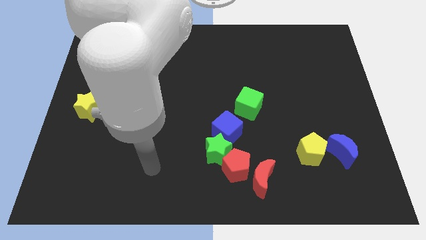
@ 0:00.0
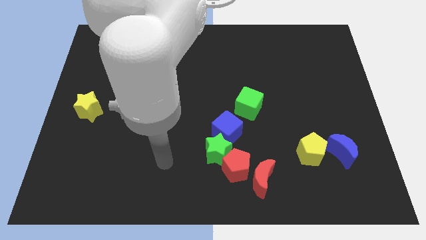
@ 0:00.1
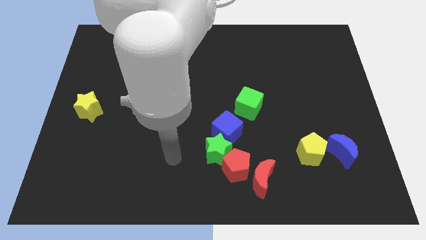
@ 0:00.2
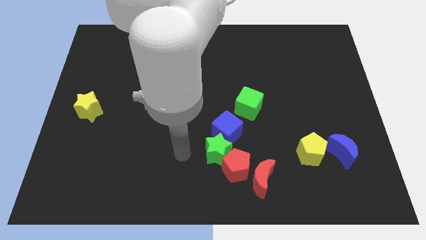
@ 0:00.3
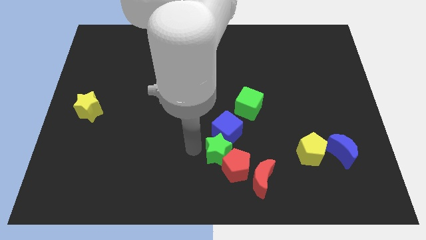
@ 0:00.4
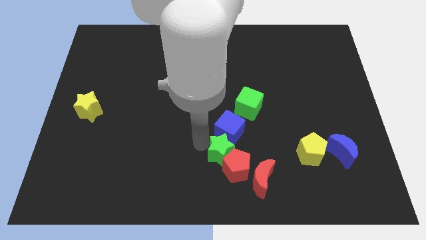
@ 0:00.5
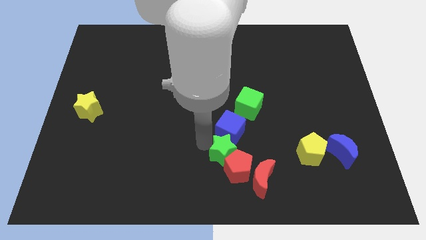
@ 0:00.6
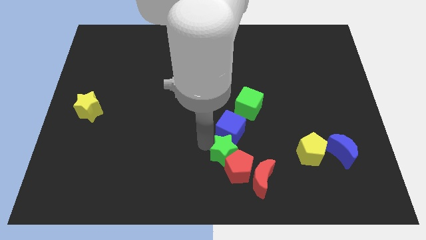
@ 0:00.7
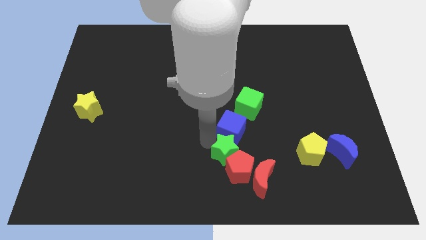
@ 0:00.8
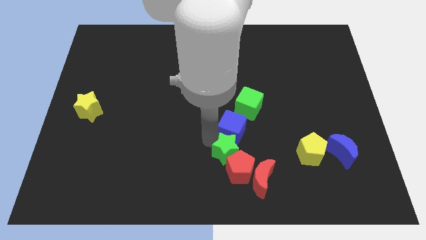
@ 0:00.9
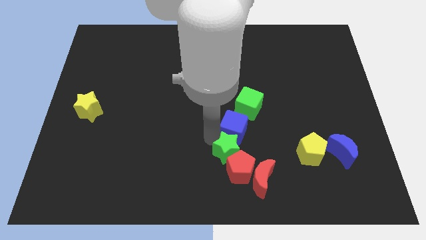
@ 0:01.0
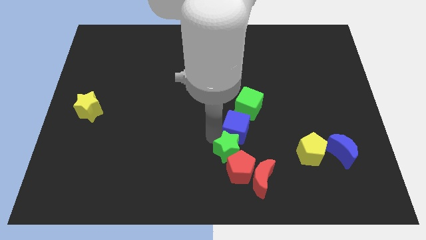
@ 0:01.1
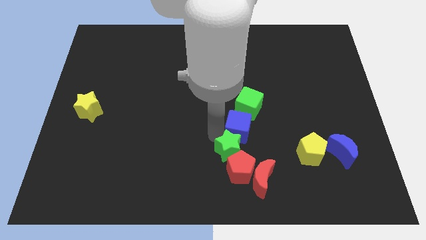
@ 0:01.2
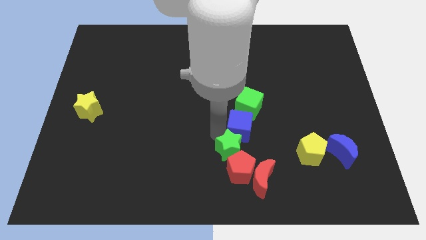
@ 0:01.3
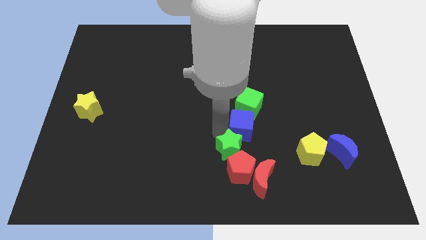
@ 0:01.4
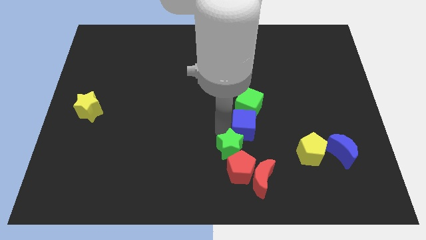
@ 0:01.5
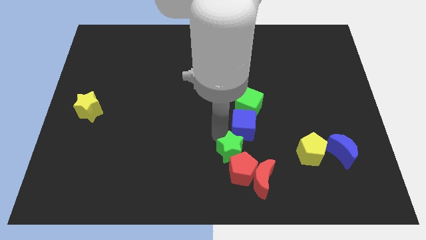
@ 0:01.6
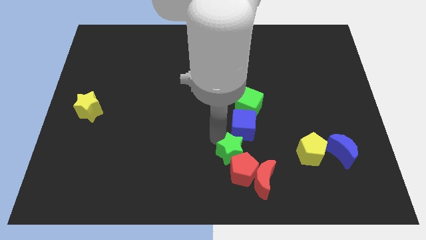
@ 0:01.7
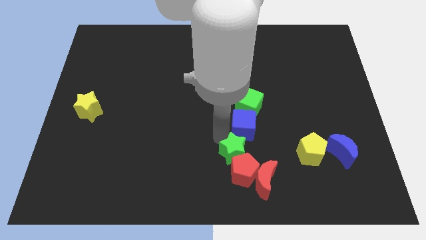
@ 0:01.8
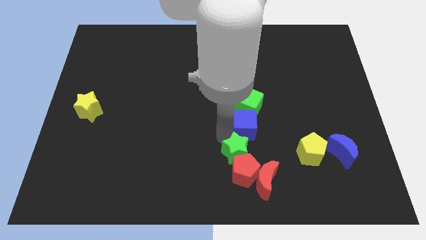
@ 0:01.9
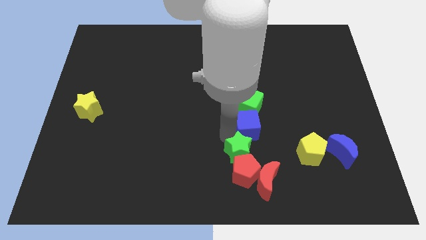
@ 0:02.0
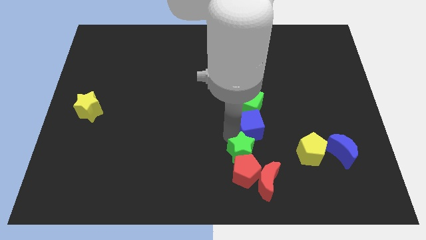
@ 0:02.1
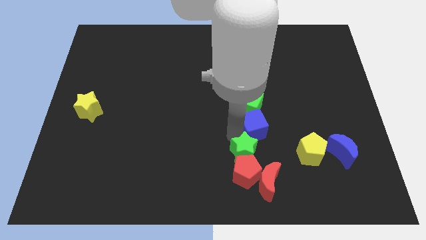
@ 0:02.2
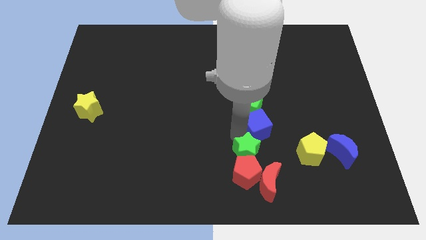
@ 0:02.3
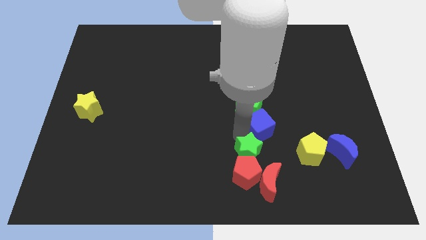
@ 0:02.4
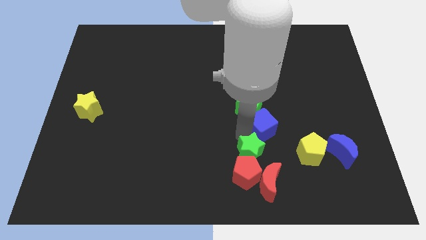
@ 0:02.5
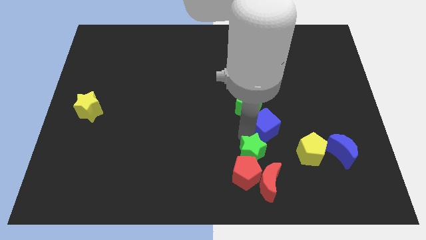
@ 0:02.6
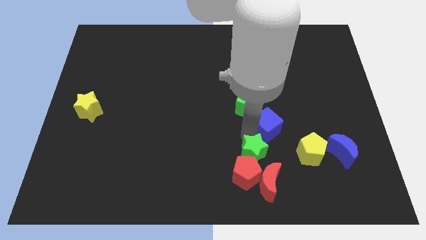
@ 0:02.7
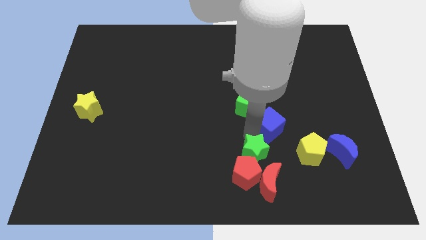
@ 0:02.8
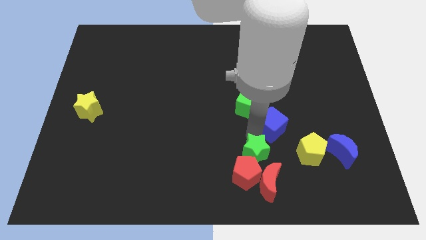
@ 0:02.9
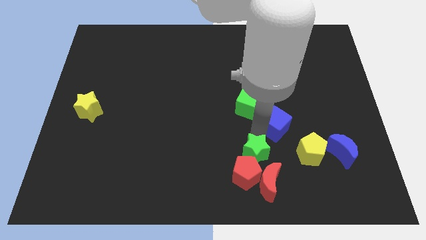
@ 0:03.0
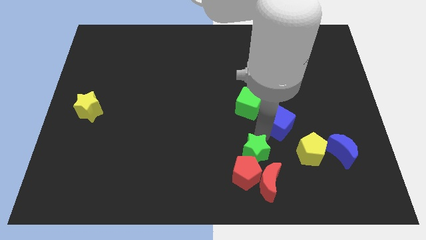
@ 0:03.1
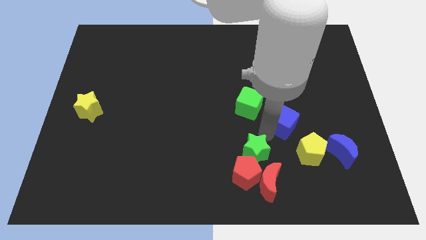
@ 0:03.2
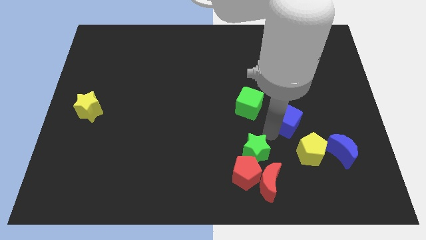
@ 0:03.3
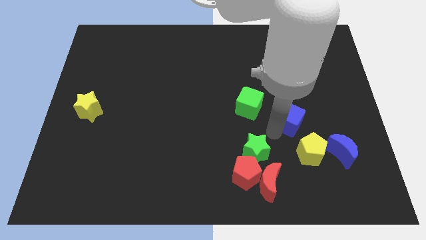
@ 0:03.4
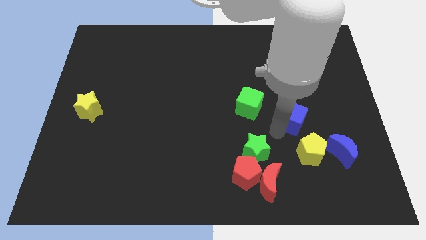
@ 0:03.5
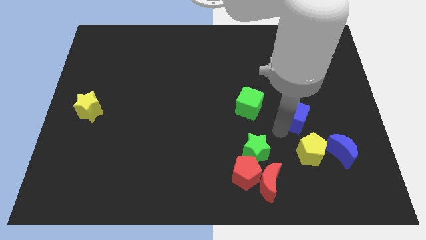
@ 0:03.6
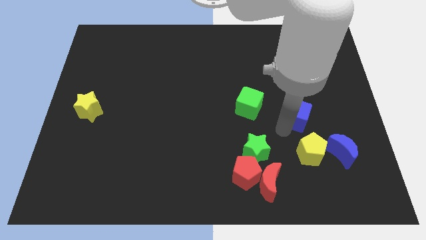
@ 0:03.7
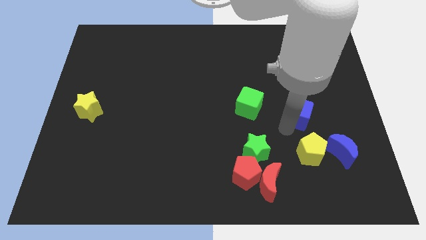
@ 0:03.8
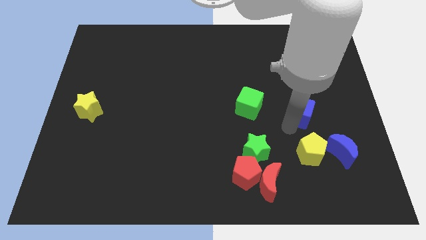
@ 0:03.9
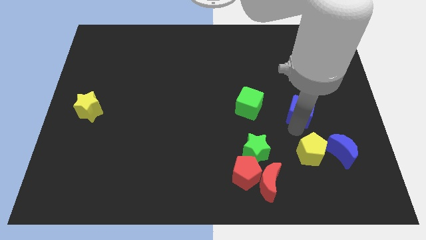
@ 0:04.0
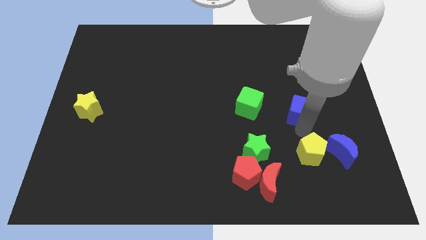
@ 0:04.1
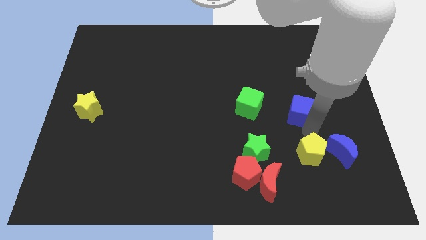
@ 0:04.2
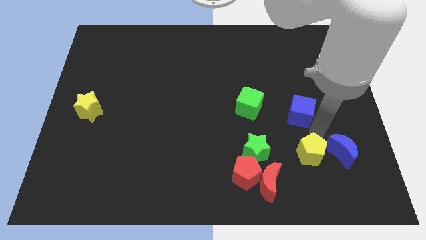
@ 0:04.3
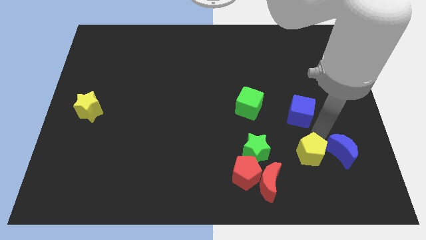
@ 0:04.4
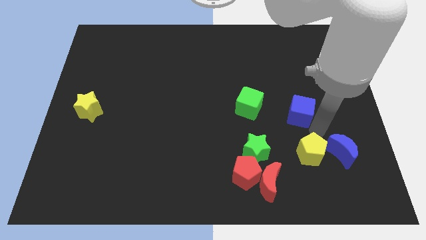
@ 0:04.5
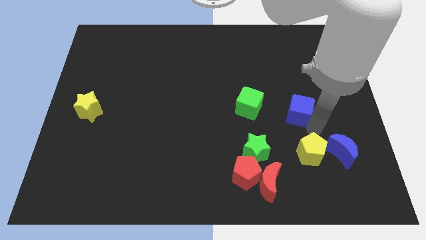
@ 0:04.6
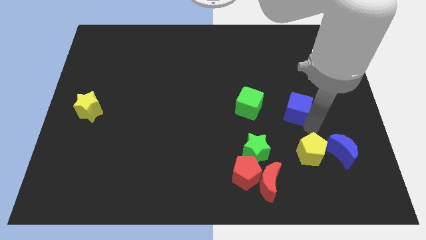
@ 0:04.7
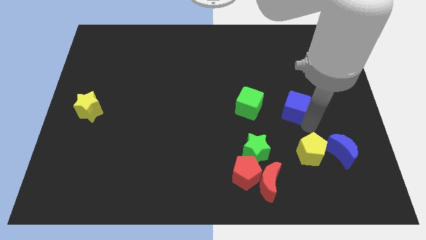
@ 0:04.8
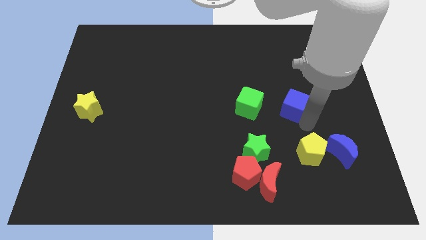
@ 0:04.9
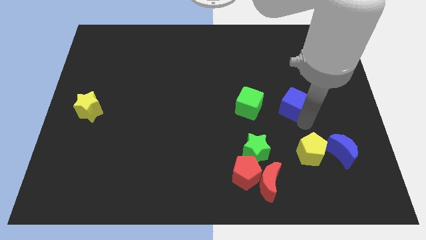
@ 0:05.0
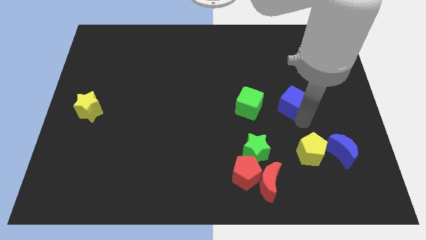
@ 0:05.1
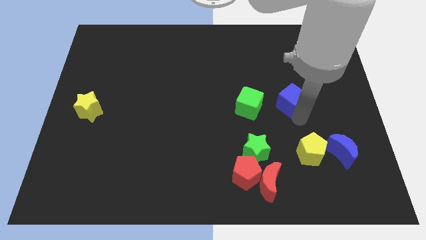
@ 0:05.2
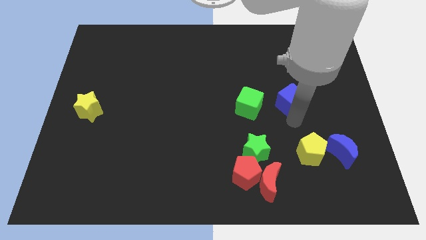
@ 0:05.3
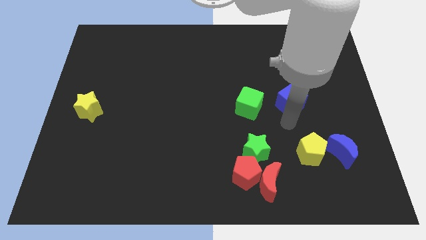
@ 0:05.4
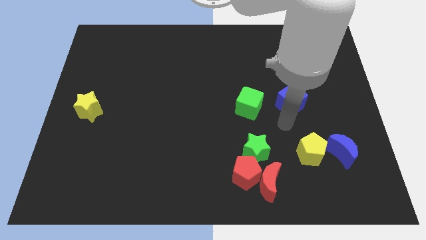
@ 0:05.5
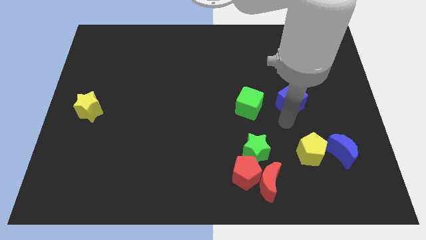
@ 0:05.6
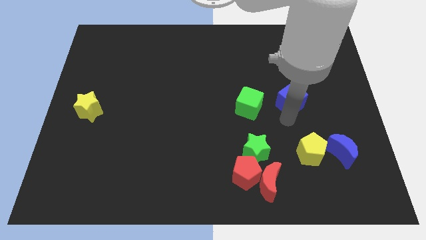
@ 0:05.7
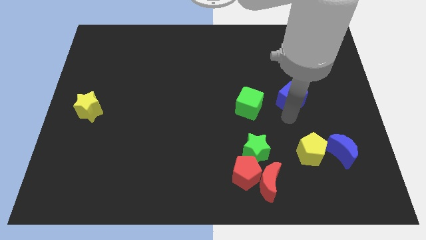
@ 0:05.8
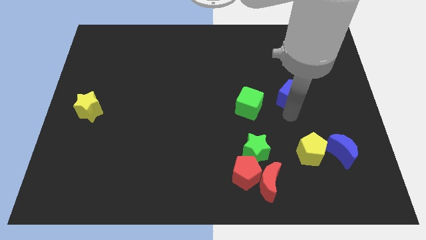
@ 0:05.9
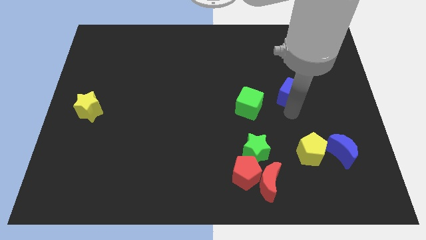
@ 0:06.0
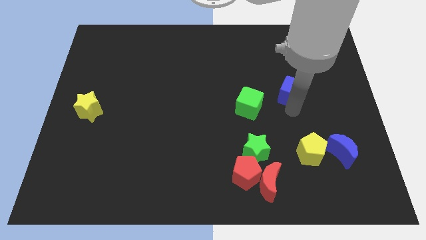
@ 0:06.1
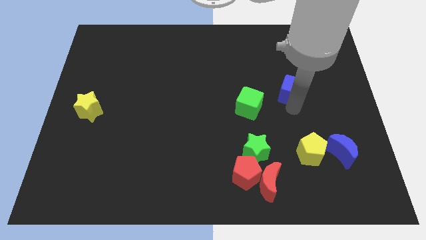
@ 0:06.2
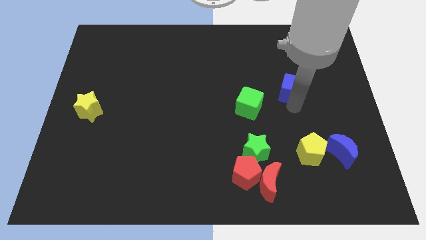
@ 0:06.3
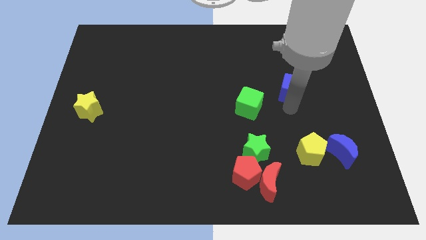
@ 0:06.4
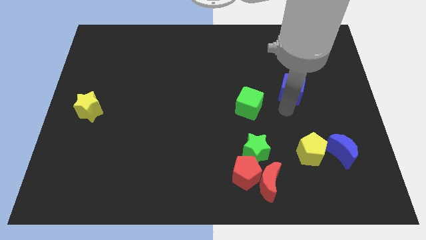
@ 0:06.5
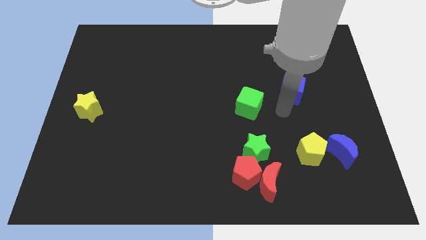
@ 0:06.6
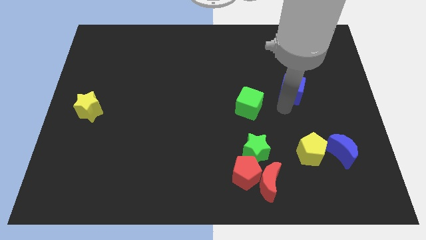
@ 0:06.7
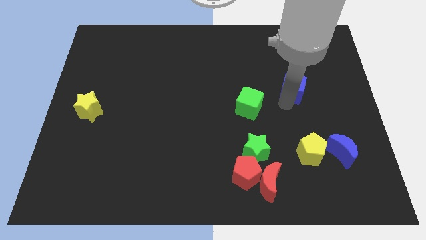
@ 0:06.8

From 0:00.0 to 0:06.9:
slide the blue cube upwards and to the right

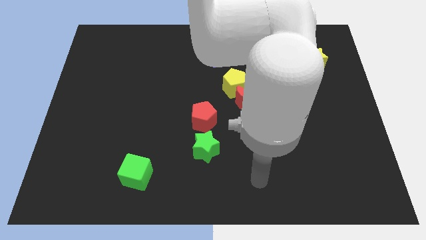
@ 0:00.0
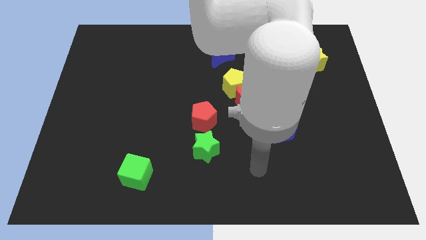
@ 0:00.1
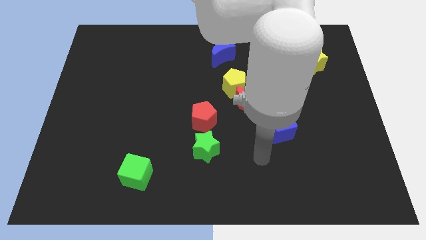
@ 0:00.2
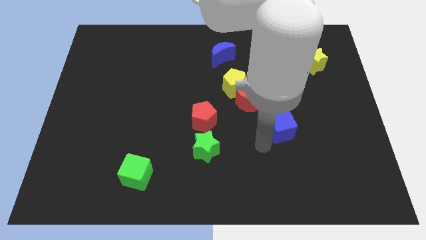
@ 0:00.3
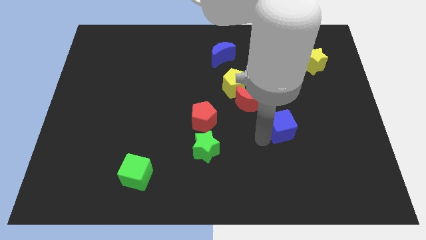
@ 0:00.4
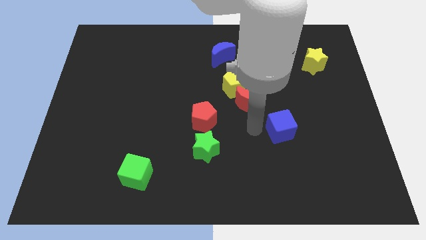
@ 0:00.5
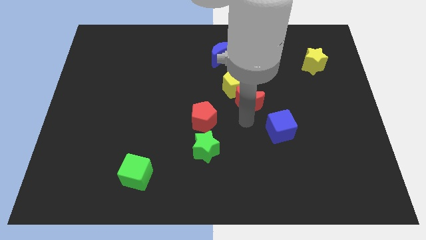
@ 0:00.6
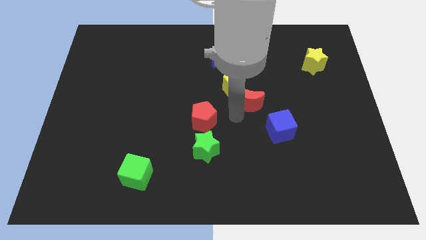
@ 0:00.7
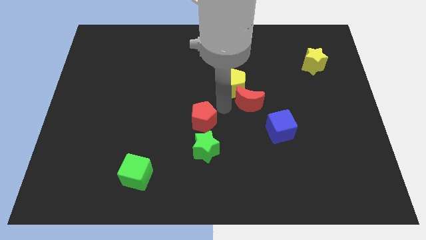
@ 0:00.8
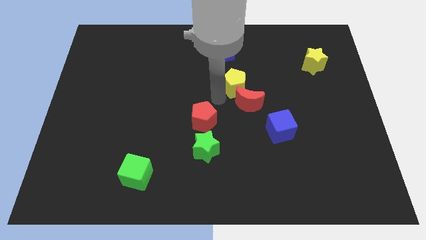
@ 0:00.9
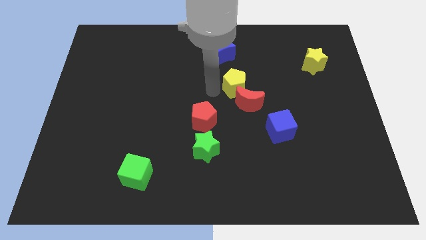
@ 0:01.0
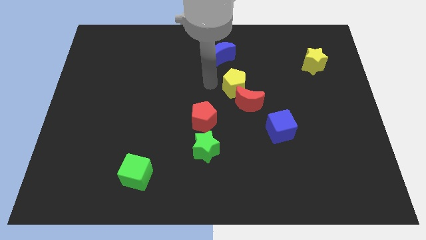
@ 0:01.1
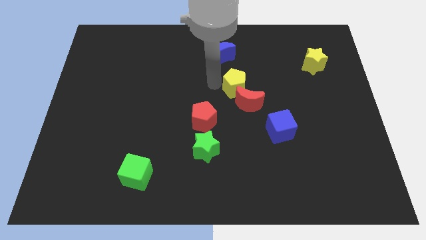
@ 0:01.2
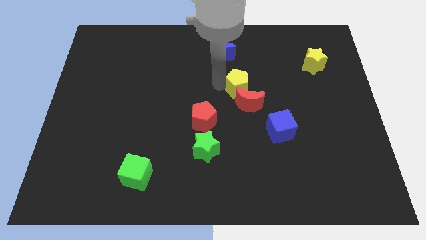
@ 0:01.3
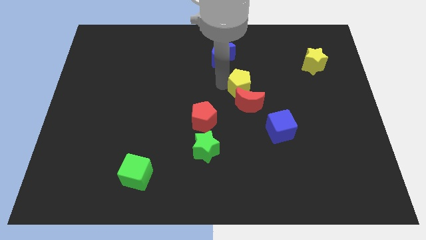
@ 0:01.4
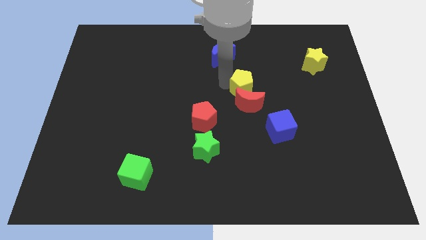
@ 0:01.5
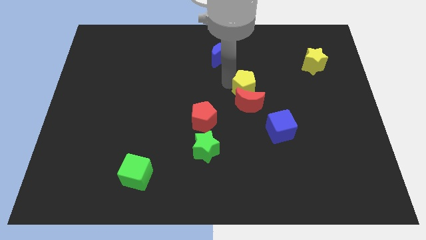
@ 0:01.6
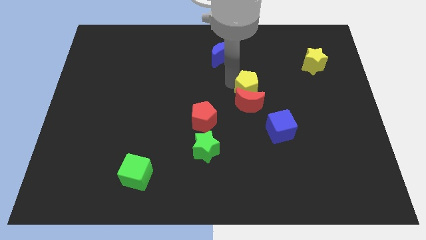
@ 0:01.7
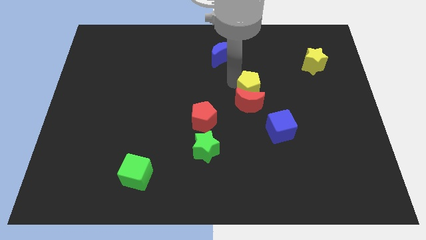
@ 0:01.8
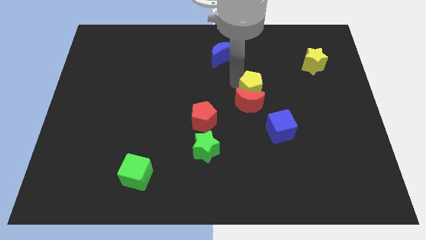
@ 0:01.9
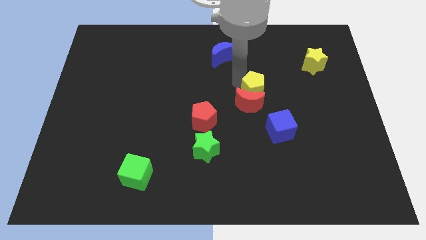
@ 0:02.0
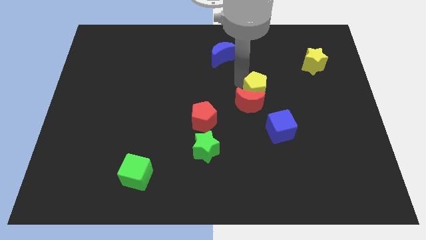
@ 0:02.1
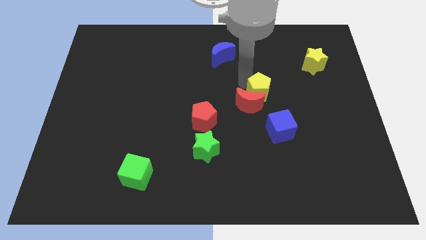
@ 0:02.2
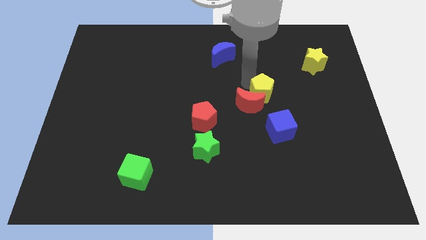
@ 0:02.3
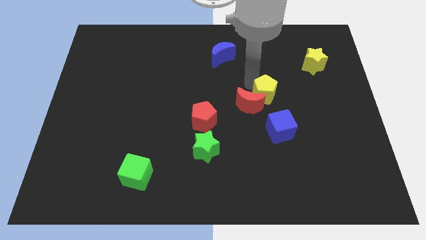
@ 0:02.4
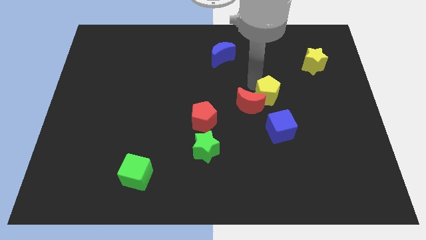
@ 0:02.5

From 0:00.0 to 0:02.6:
slightly slide the yellow pentagon down and then to the right
